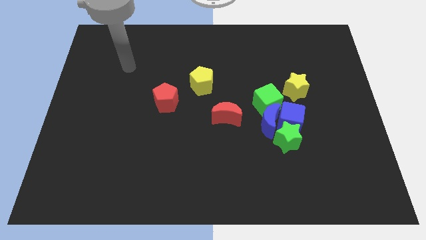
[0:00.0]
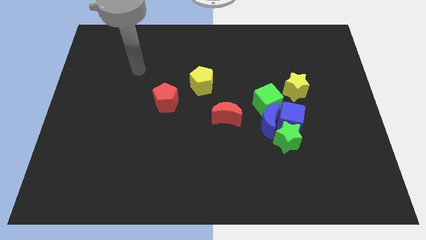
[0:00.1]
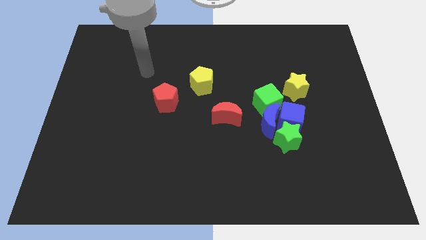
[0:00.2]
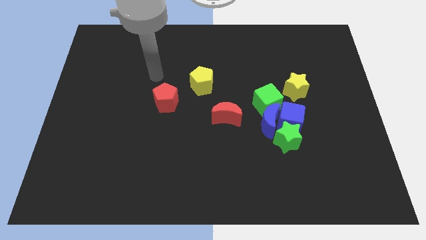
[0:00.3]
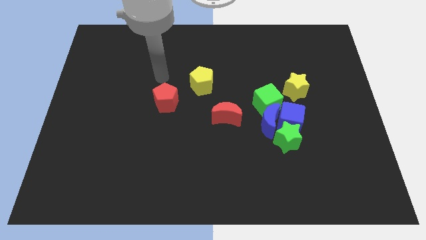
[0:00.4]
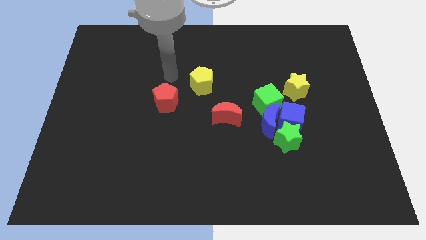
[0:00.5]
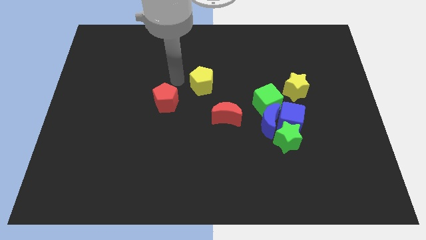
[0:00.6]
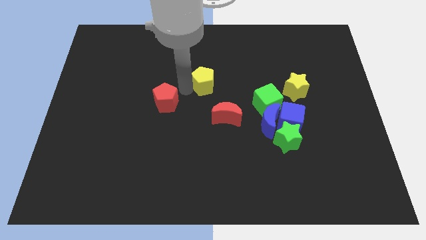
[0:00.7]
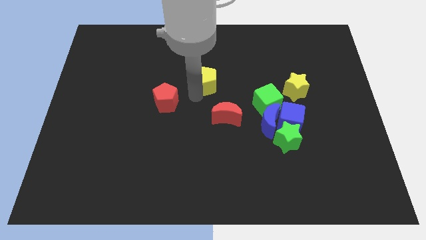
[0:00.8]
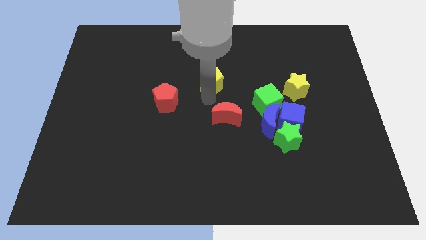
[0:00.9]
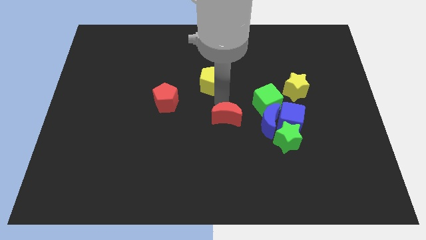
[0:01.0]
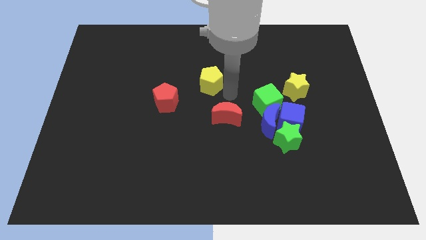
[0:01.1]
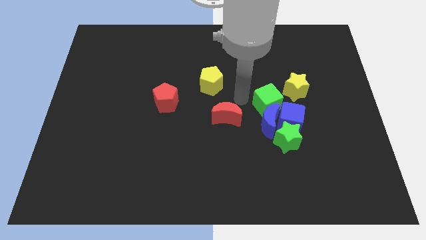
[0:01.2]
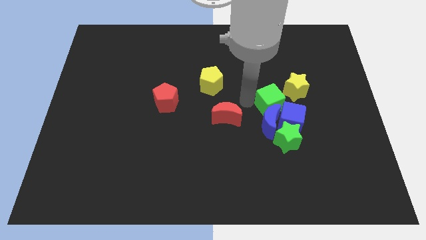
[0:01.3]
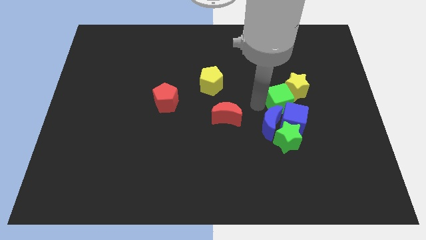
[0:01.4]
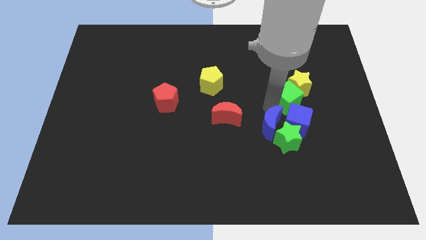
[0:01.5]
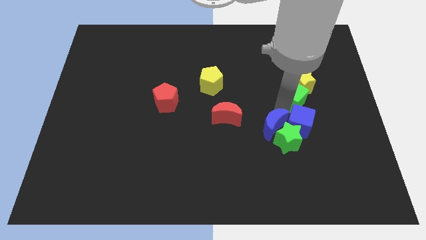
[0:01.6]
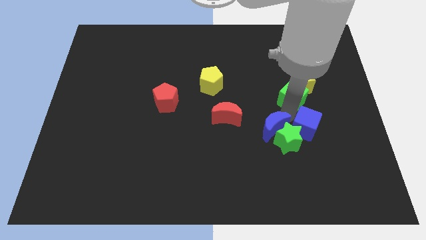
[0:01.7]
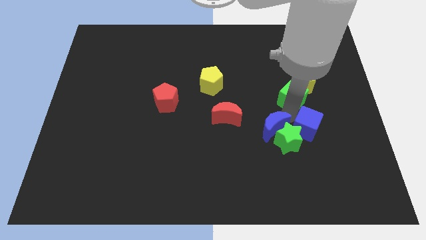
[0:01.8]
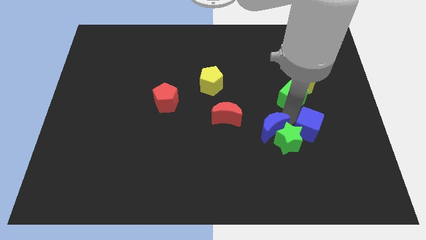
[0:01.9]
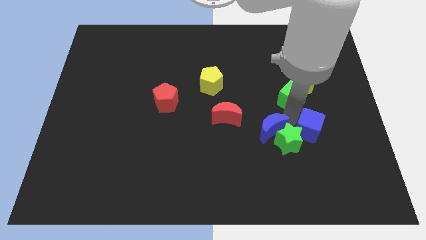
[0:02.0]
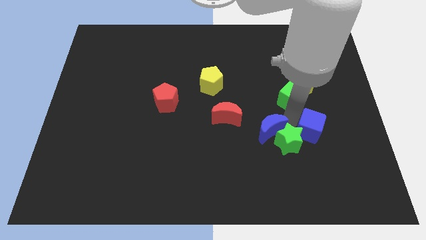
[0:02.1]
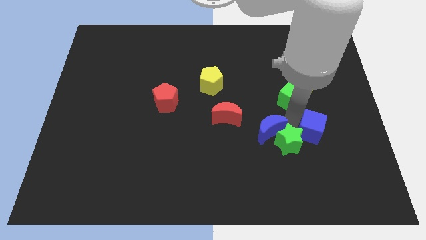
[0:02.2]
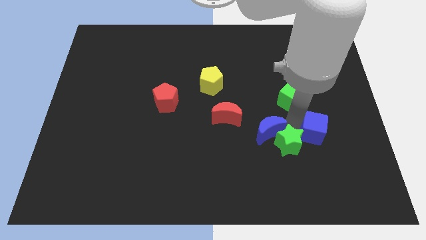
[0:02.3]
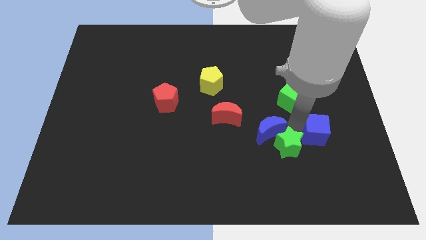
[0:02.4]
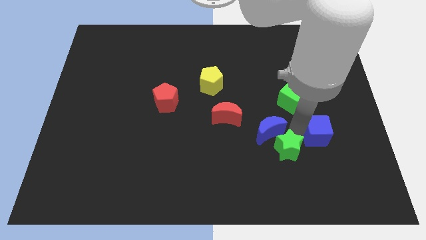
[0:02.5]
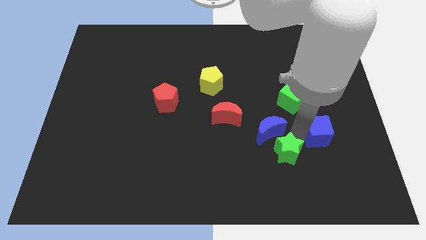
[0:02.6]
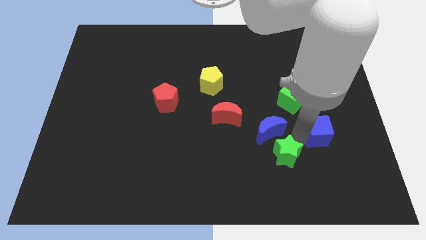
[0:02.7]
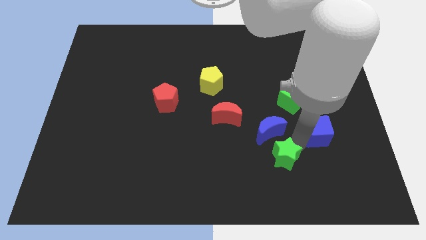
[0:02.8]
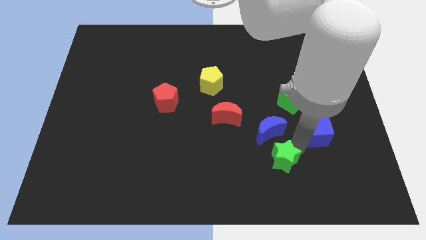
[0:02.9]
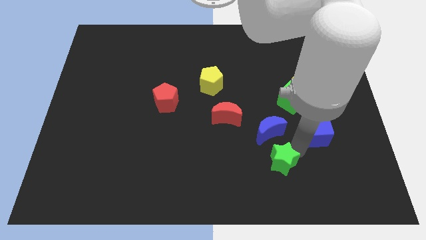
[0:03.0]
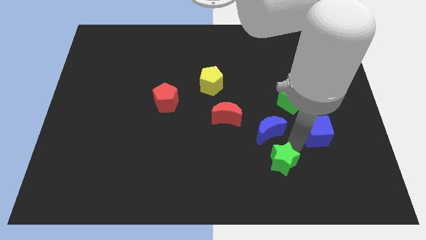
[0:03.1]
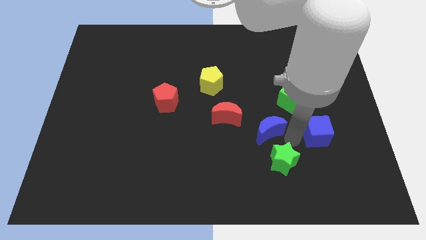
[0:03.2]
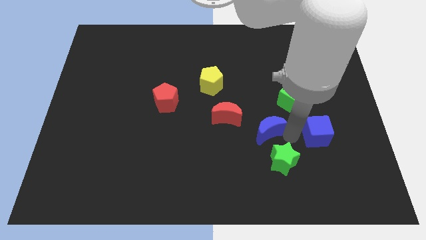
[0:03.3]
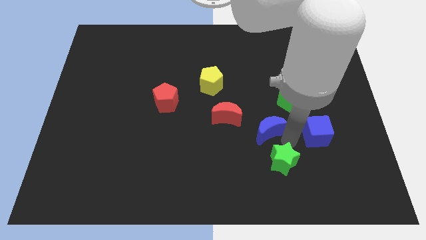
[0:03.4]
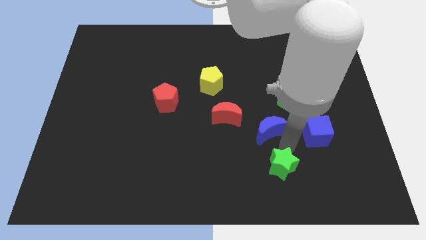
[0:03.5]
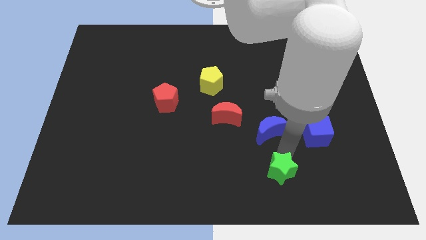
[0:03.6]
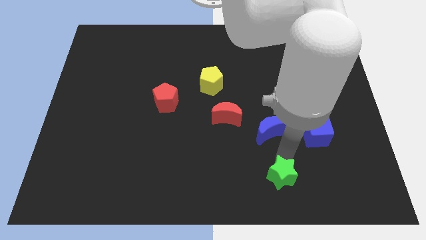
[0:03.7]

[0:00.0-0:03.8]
move the green star away from the blue cube and blue moon

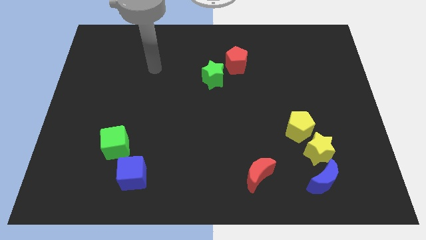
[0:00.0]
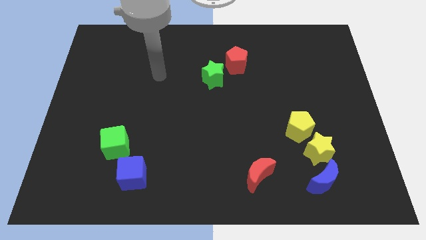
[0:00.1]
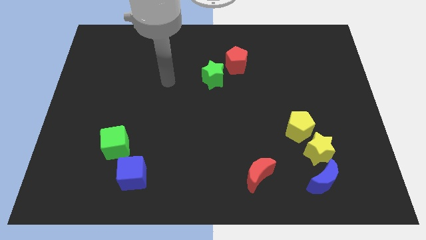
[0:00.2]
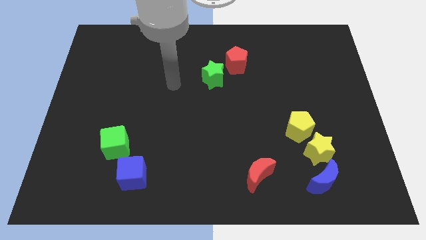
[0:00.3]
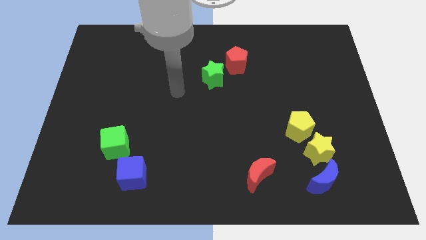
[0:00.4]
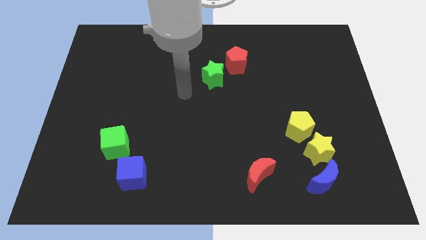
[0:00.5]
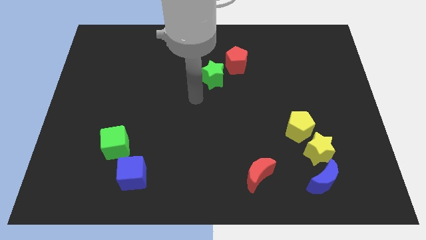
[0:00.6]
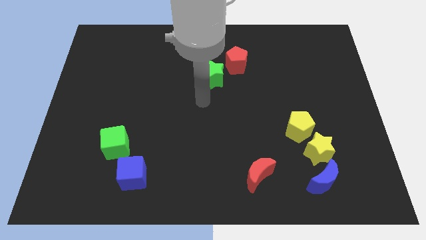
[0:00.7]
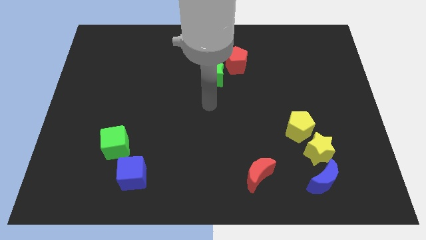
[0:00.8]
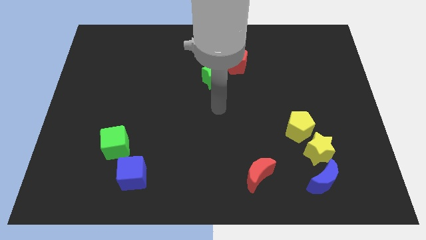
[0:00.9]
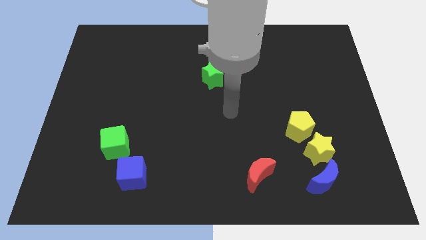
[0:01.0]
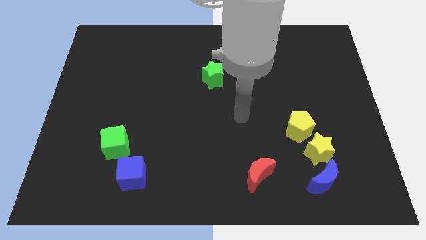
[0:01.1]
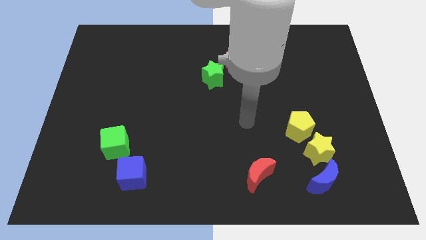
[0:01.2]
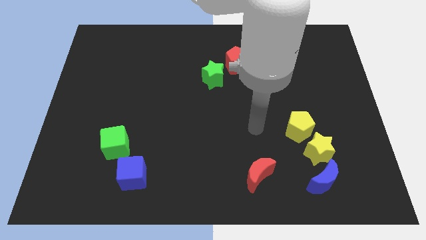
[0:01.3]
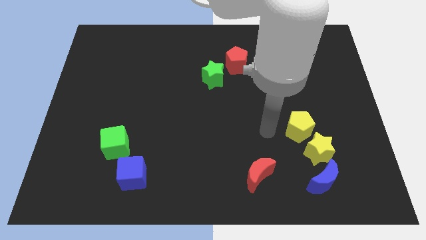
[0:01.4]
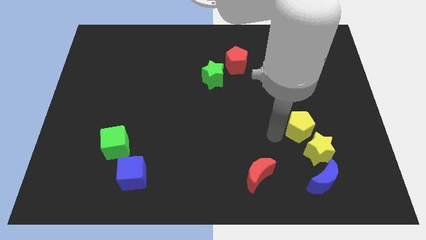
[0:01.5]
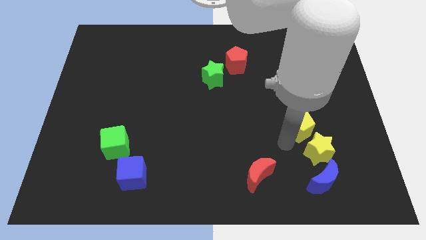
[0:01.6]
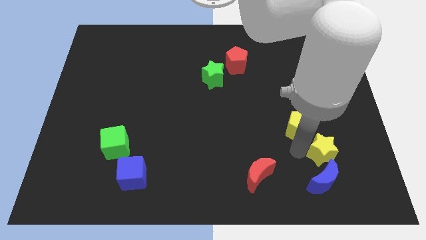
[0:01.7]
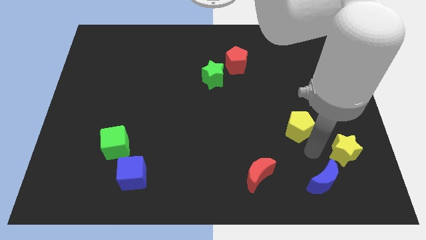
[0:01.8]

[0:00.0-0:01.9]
pull the yellow pentagon apart from the yellow star

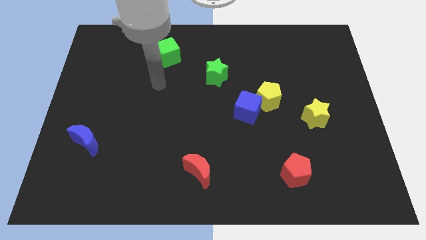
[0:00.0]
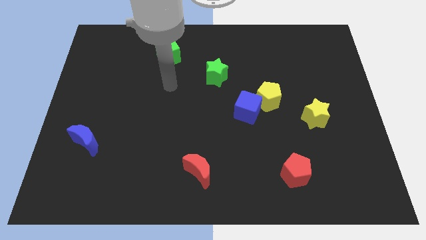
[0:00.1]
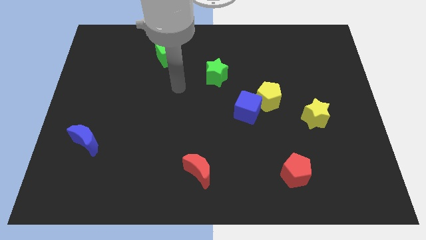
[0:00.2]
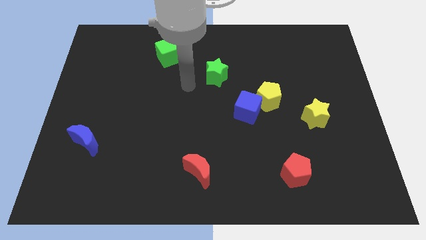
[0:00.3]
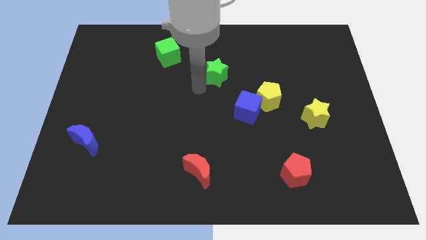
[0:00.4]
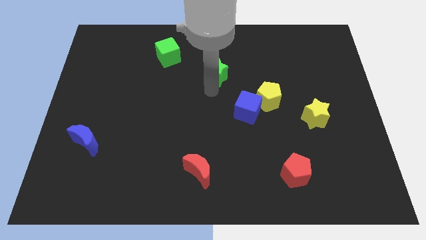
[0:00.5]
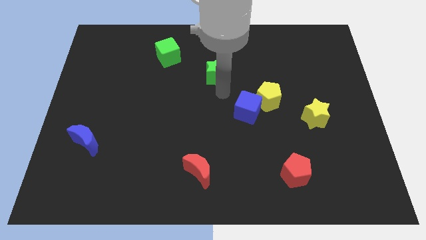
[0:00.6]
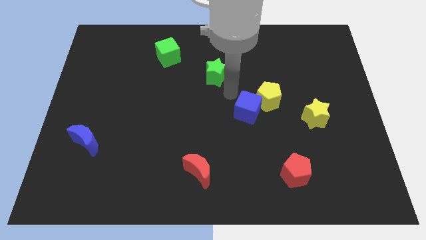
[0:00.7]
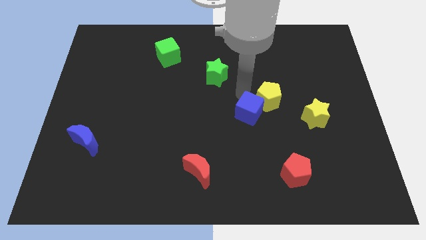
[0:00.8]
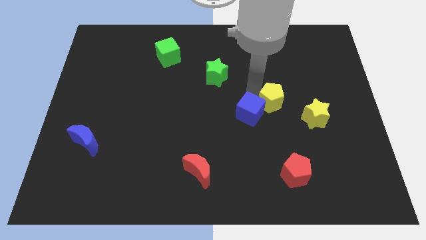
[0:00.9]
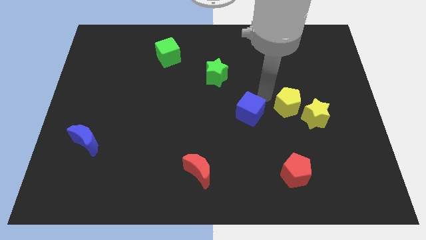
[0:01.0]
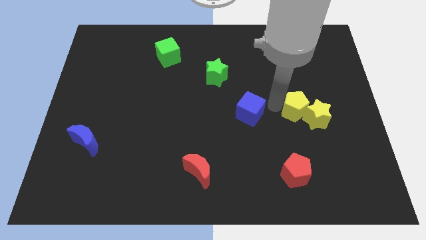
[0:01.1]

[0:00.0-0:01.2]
separate the blue cube from the yellow pentagon

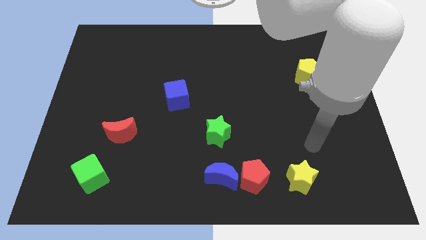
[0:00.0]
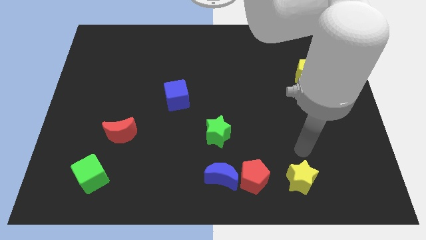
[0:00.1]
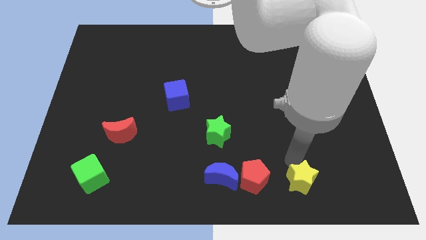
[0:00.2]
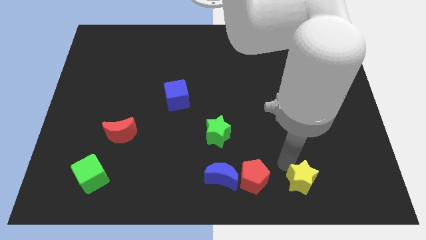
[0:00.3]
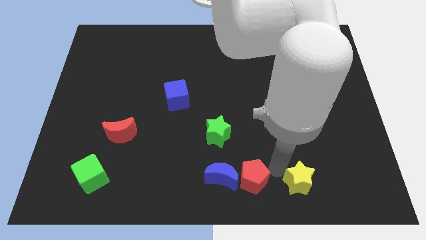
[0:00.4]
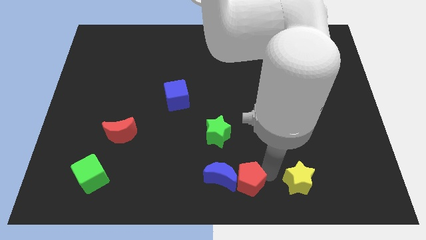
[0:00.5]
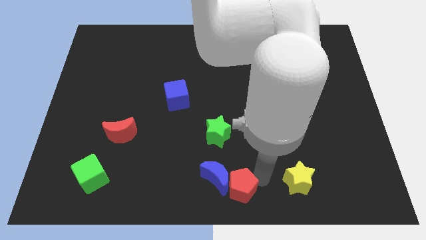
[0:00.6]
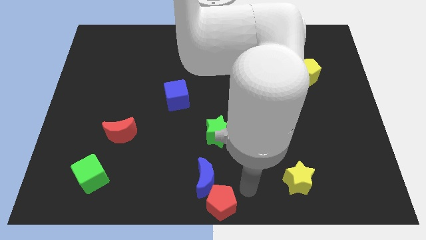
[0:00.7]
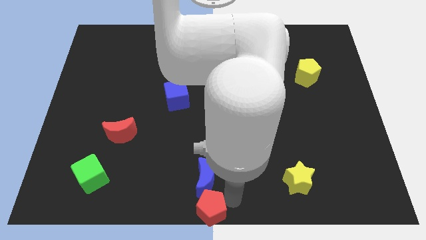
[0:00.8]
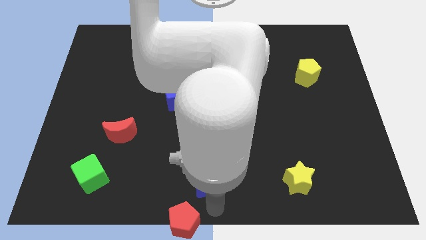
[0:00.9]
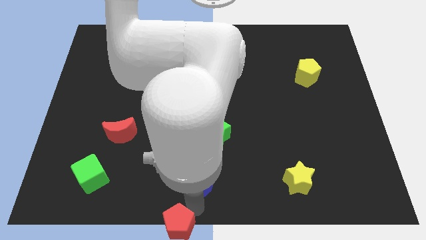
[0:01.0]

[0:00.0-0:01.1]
move the blue moon away from the red pentagon

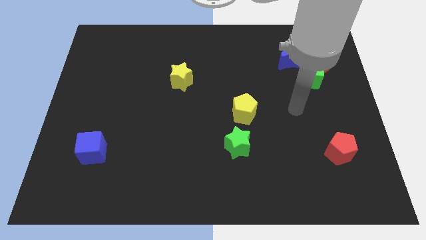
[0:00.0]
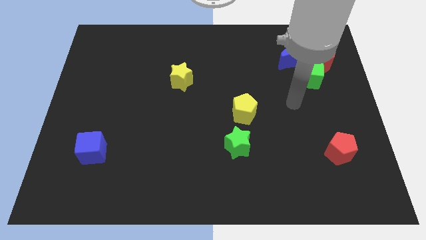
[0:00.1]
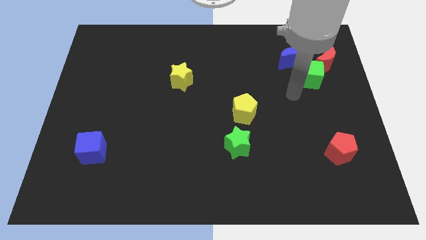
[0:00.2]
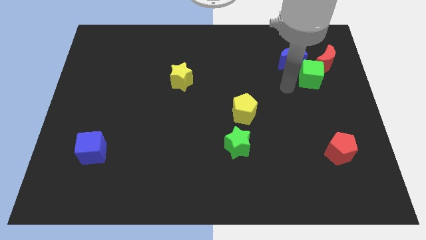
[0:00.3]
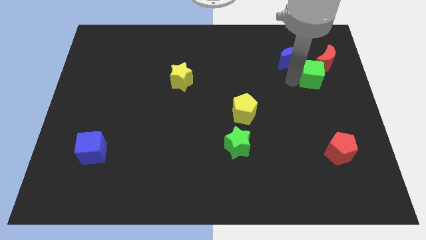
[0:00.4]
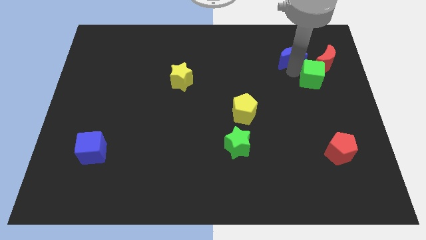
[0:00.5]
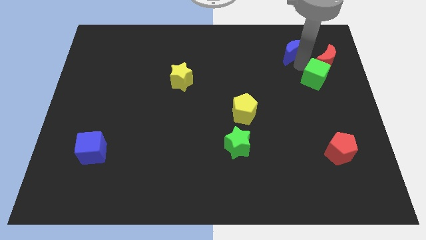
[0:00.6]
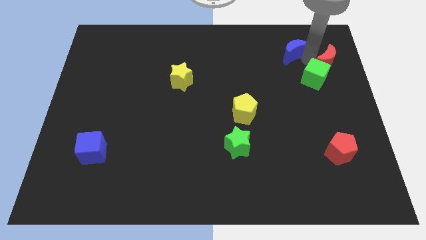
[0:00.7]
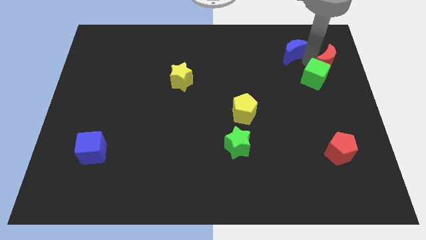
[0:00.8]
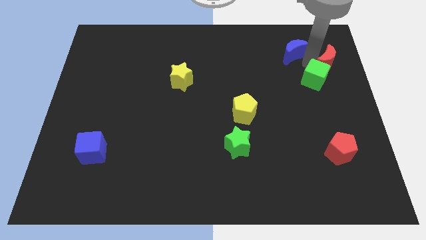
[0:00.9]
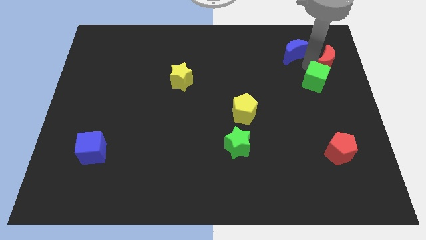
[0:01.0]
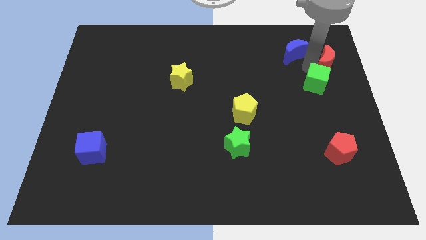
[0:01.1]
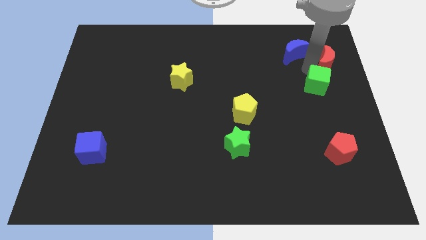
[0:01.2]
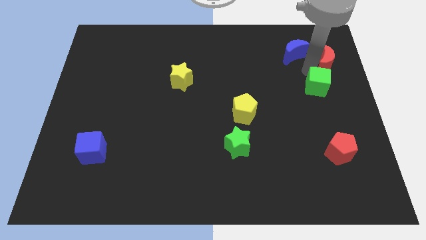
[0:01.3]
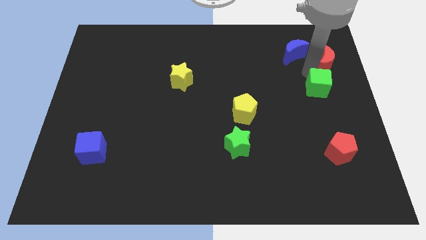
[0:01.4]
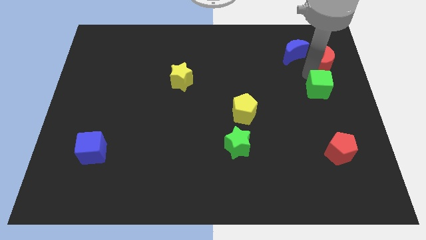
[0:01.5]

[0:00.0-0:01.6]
pull the green cube apart from the red moon and blue moon
